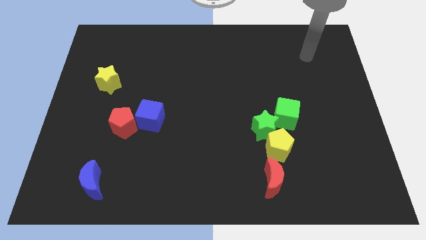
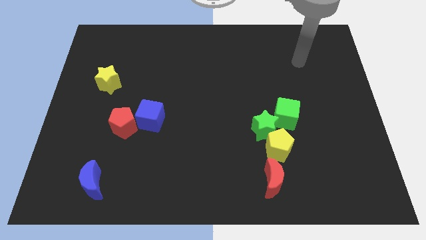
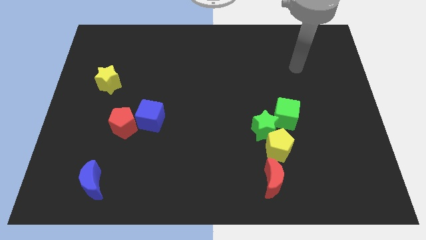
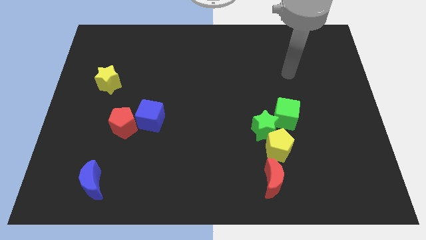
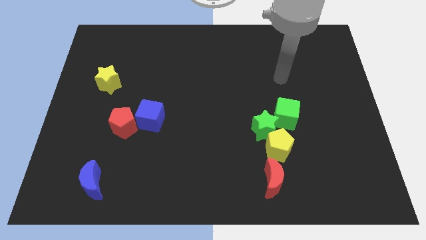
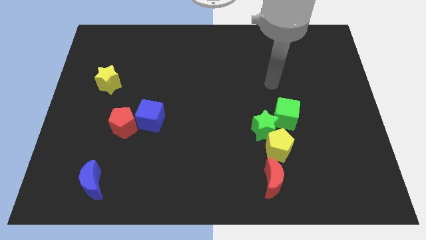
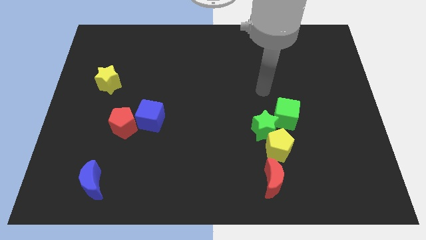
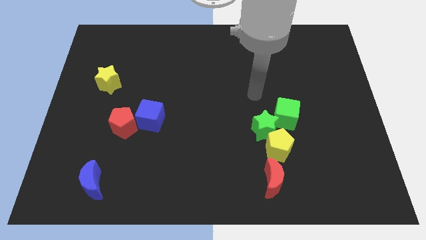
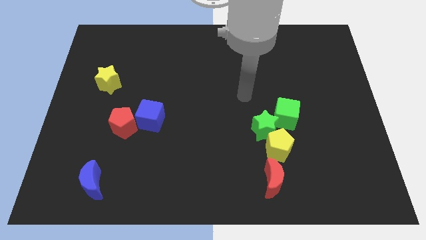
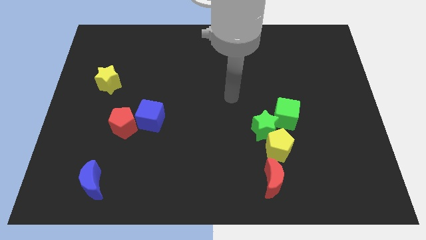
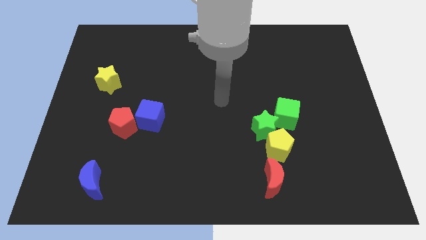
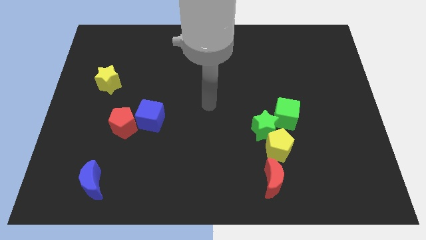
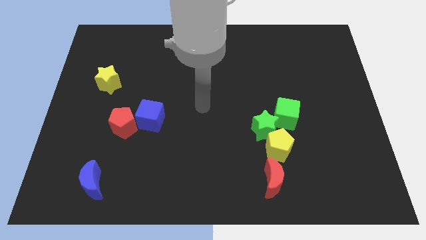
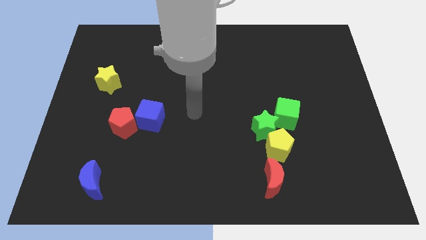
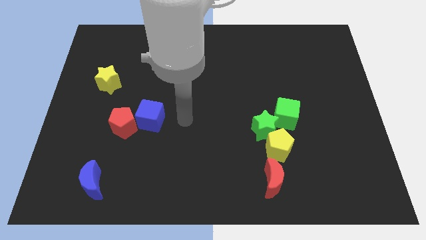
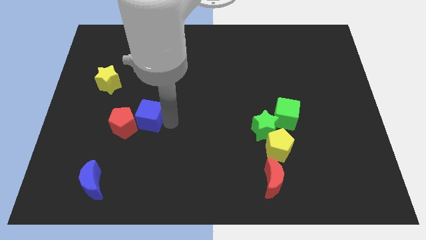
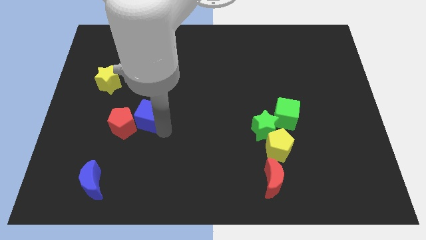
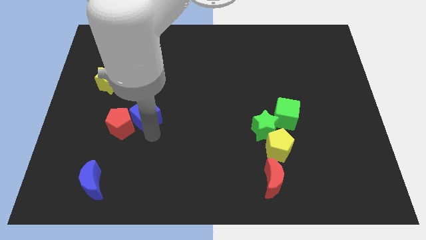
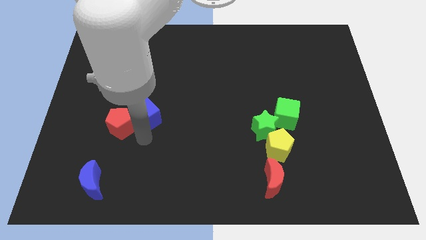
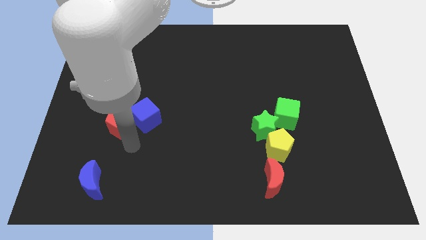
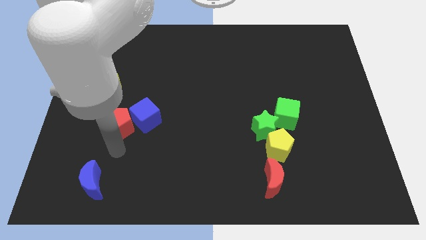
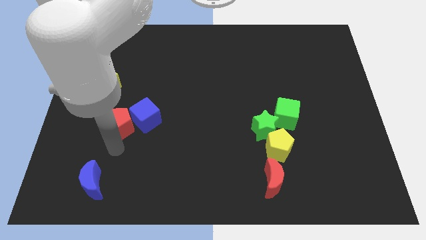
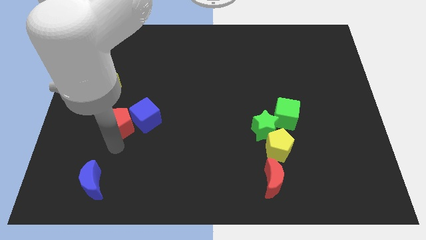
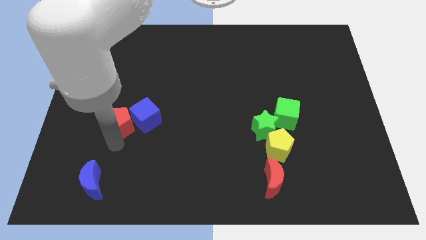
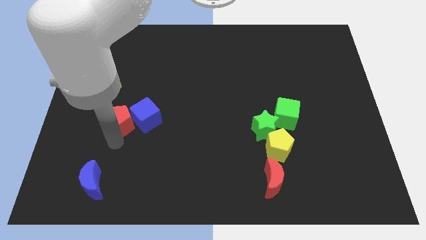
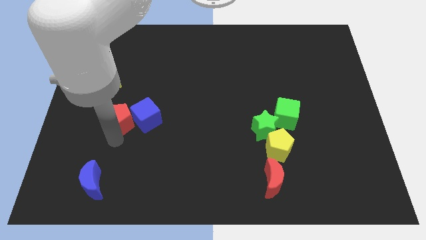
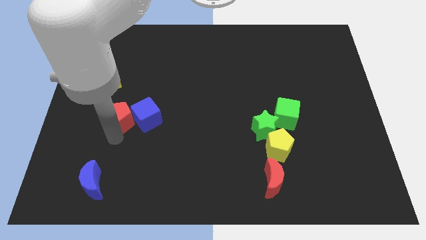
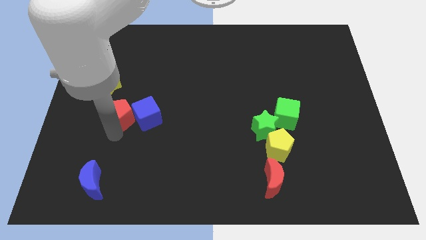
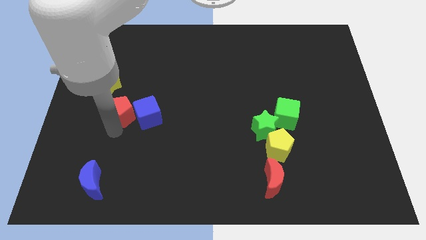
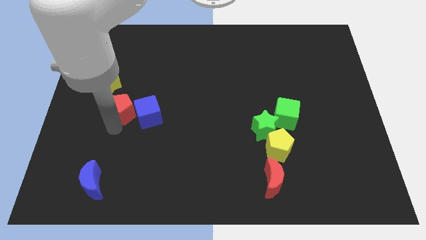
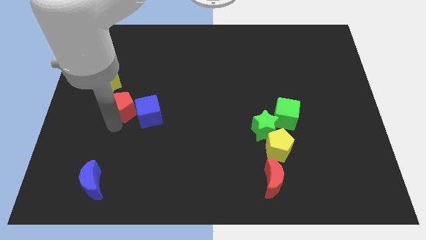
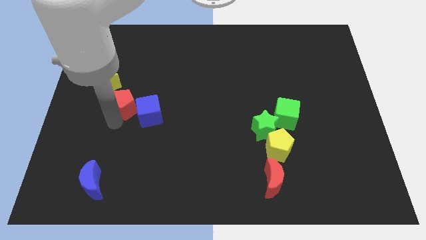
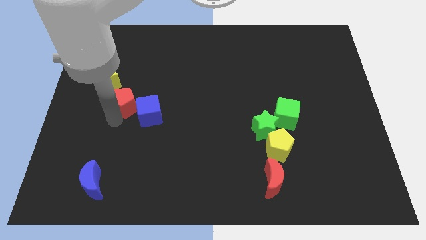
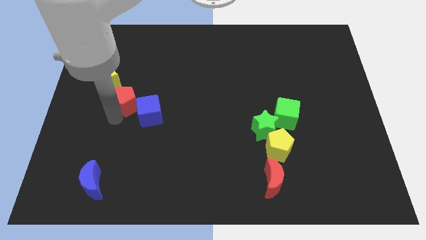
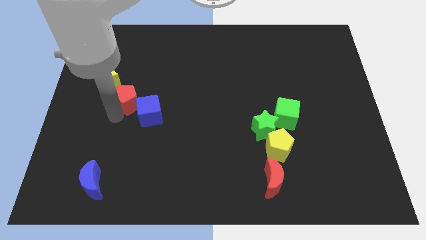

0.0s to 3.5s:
slightly push the red pentagon up

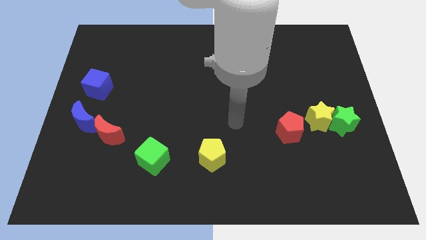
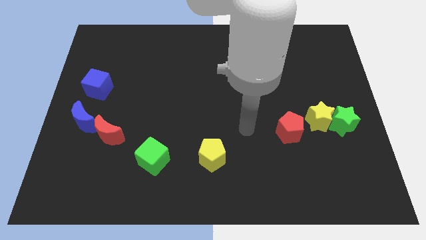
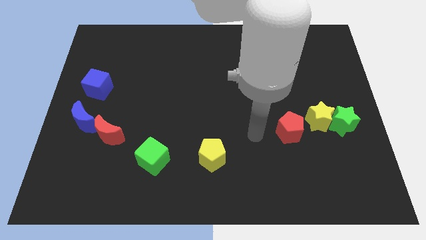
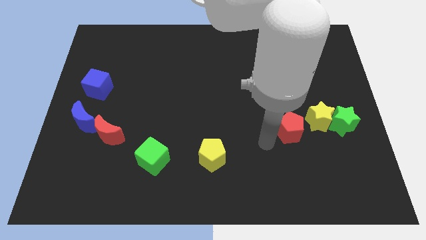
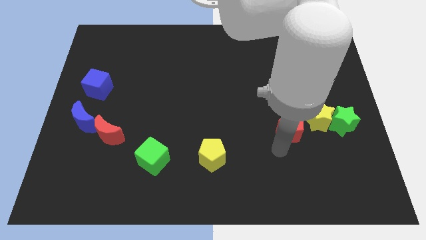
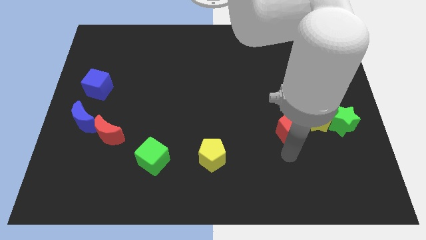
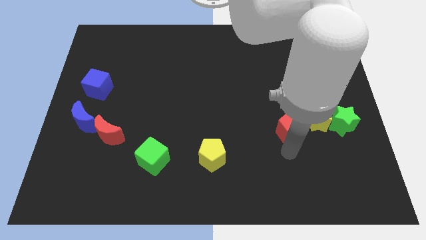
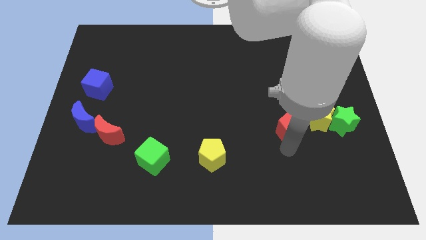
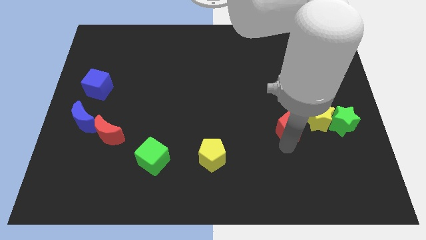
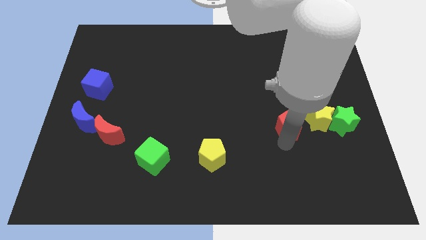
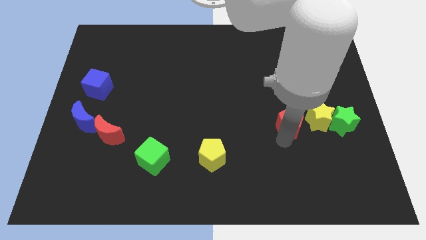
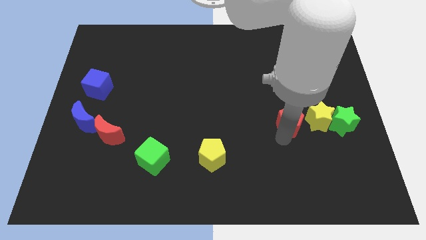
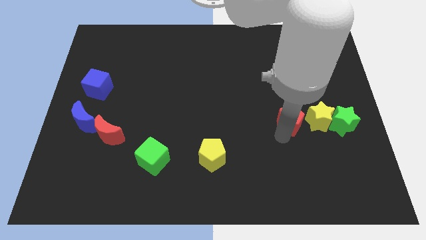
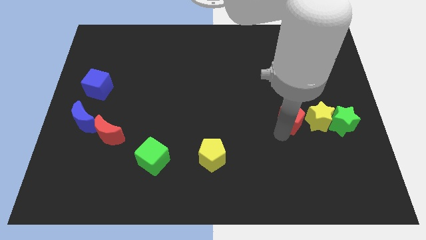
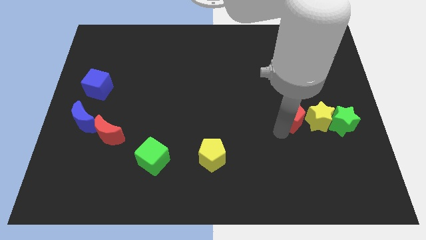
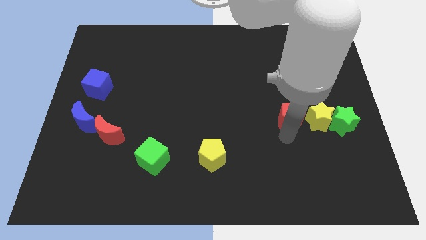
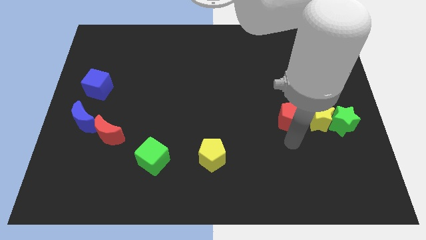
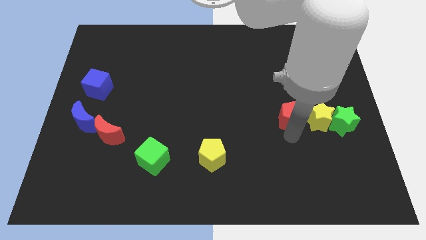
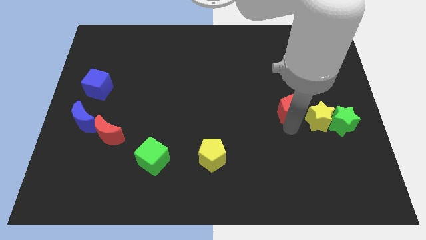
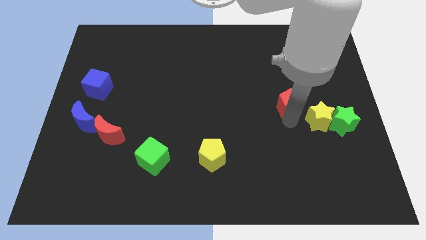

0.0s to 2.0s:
slide the red pentagon slightly up

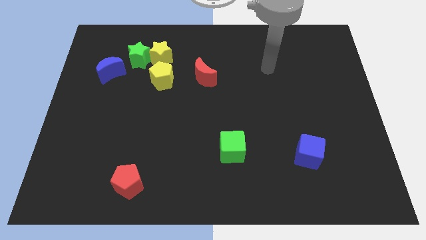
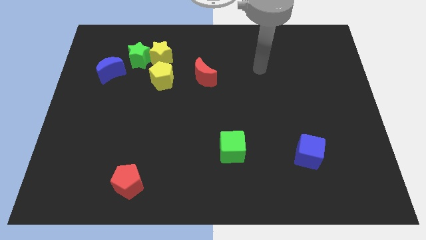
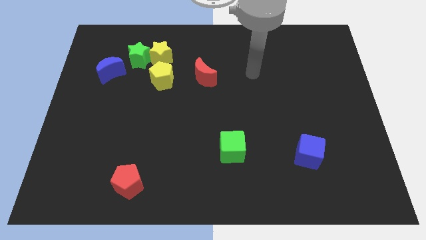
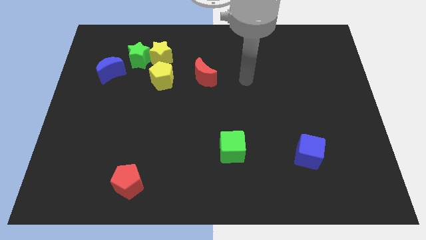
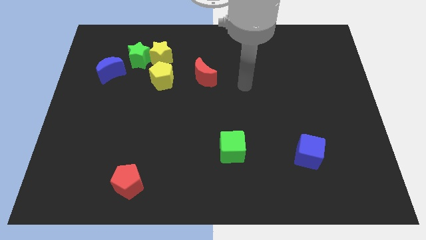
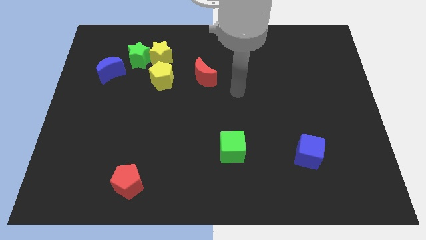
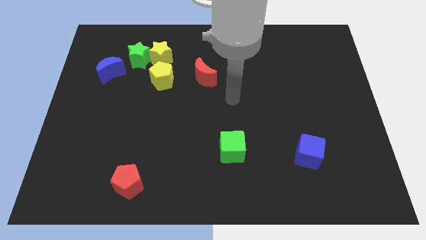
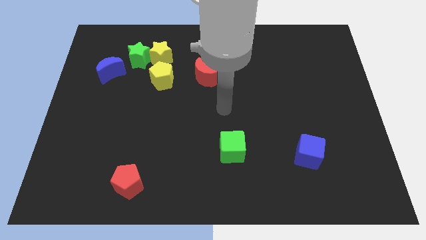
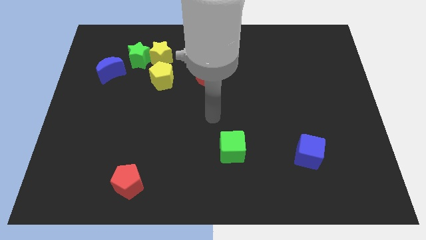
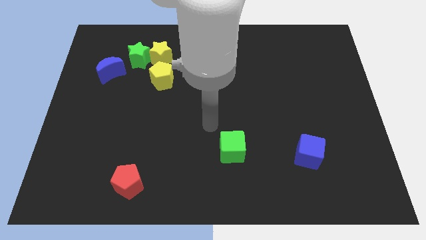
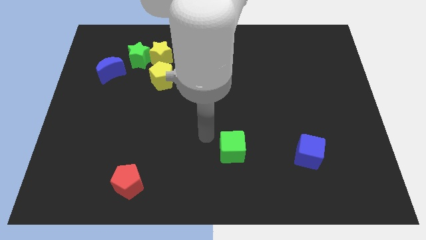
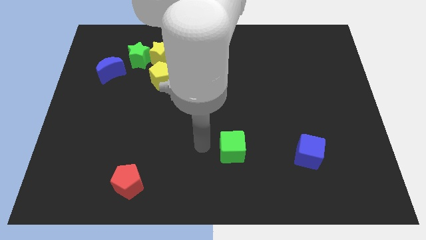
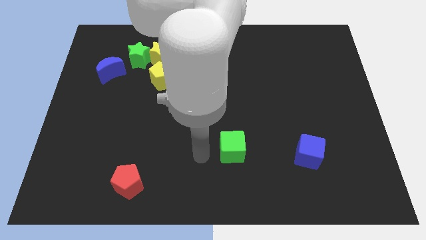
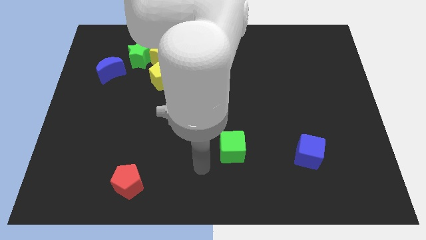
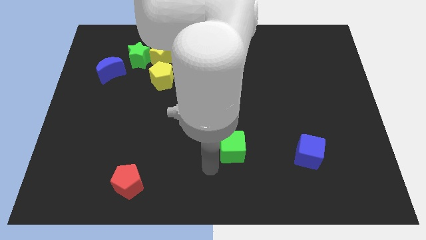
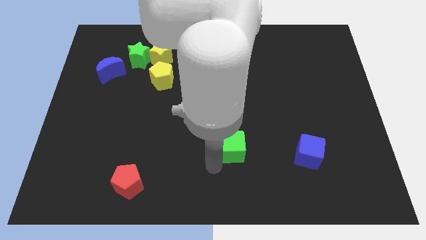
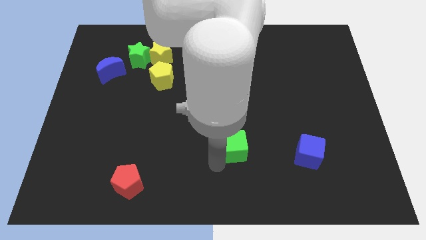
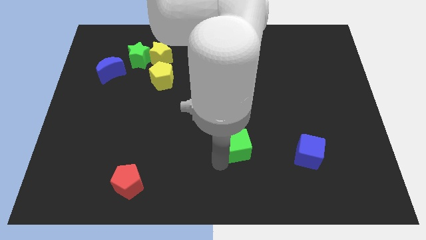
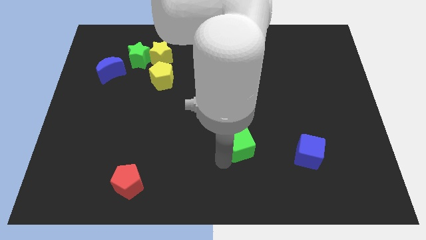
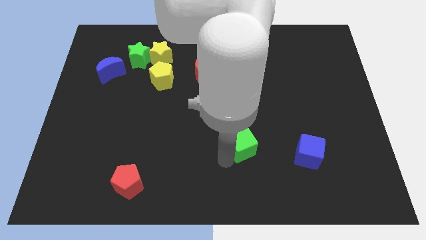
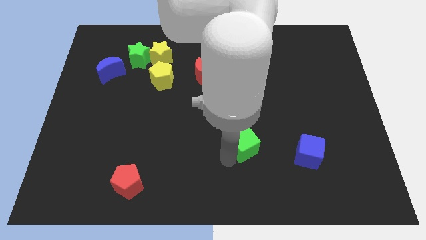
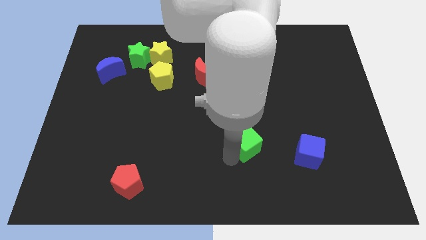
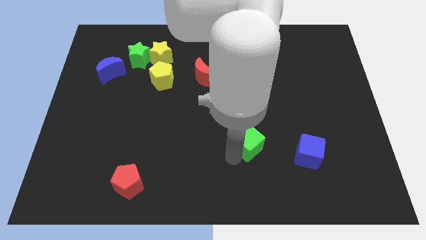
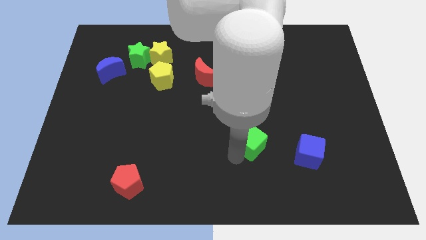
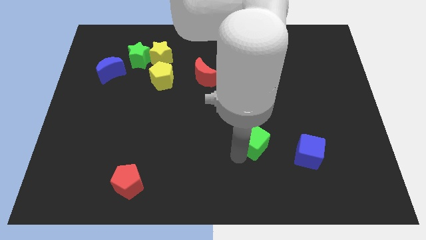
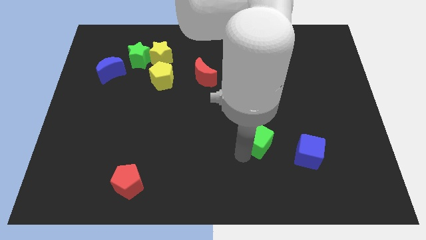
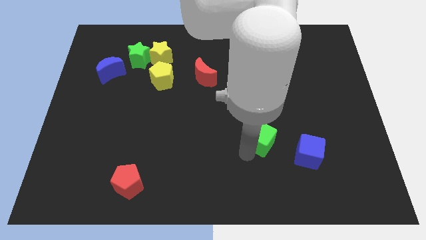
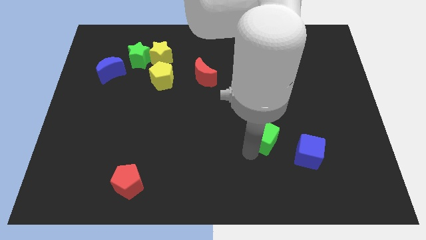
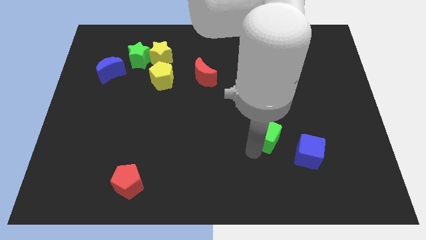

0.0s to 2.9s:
push the green cube diagonally up and to the right a little bit
